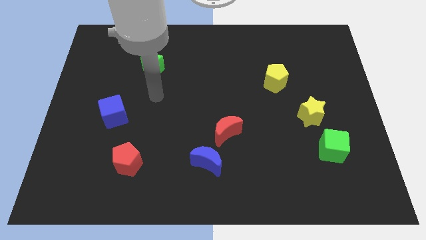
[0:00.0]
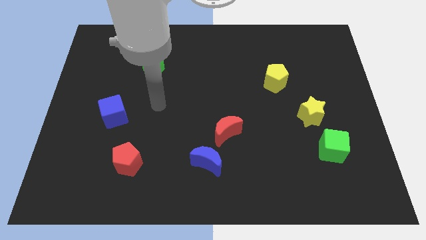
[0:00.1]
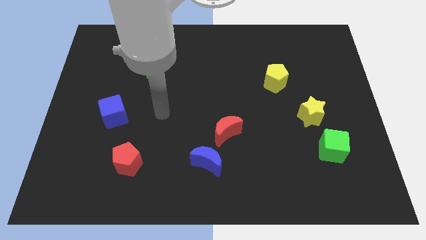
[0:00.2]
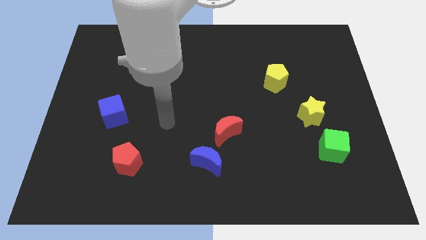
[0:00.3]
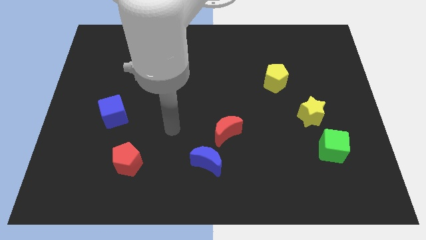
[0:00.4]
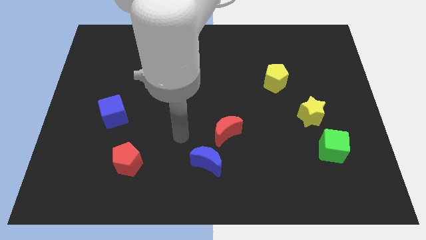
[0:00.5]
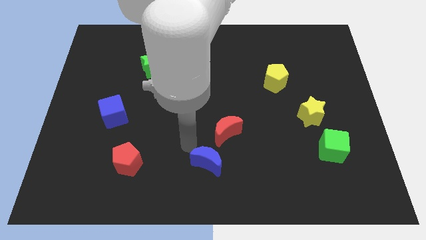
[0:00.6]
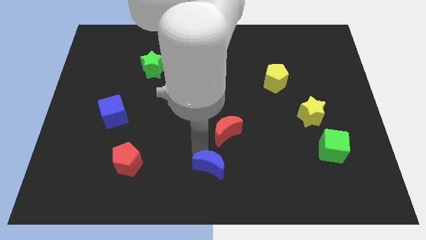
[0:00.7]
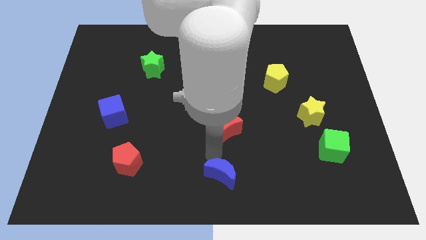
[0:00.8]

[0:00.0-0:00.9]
move the red moon away from the blue moon

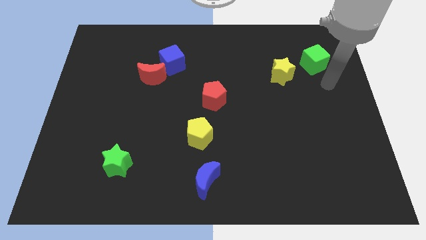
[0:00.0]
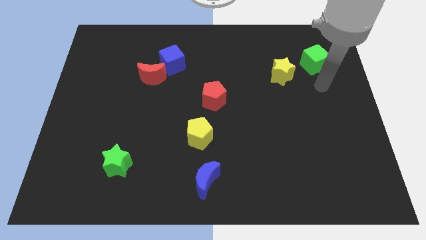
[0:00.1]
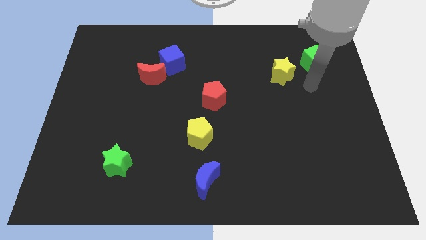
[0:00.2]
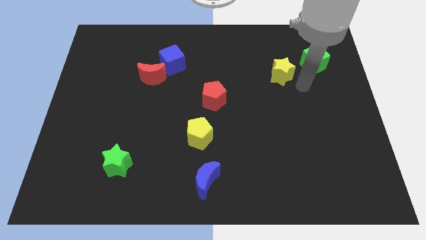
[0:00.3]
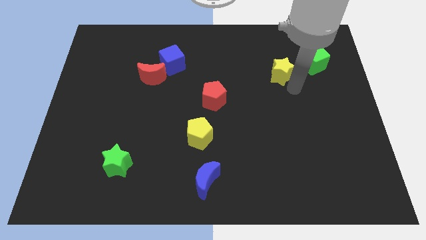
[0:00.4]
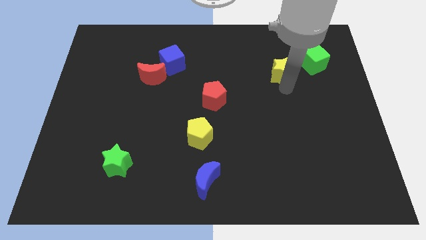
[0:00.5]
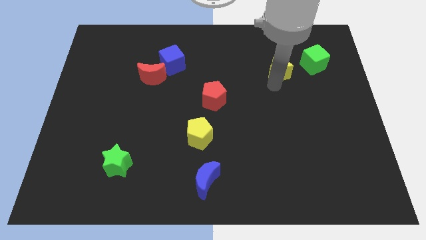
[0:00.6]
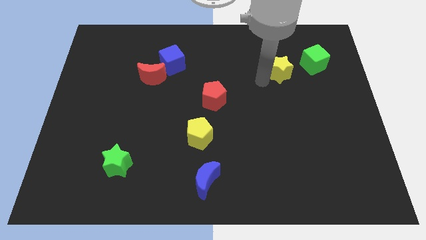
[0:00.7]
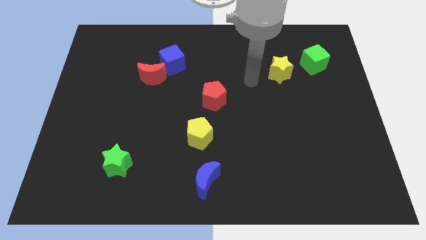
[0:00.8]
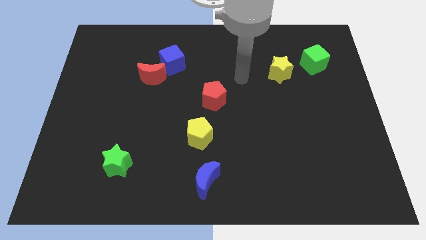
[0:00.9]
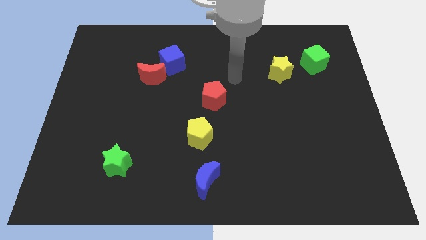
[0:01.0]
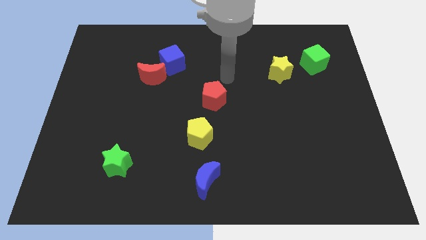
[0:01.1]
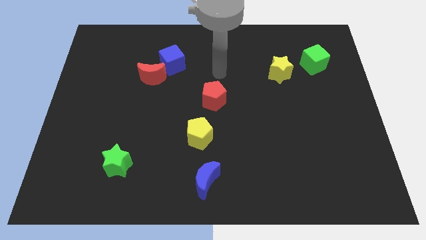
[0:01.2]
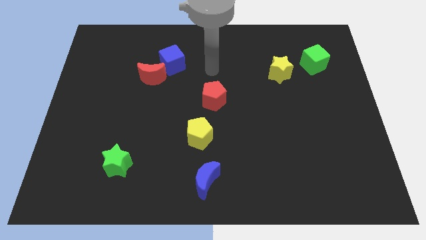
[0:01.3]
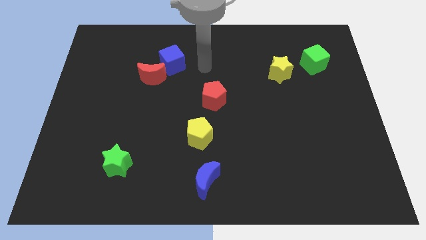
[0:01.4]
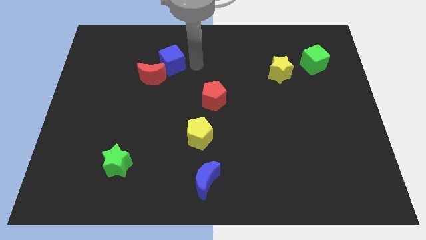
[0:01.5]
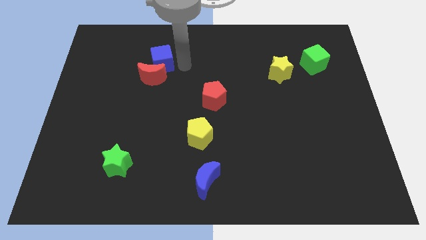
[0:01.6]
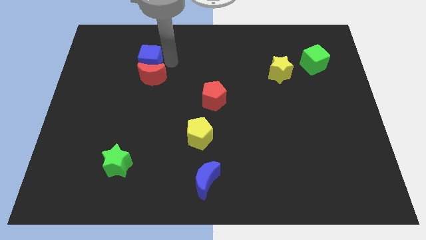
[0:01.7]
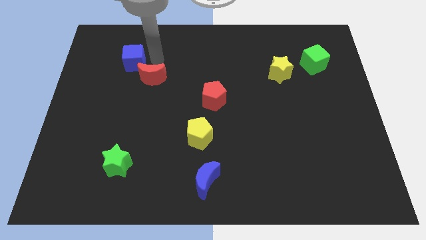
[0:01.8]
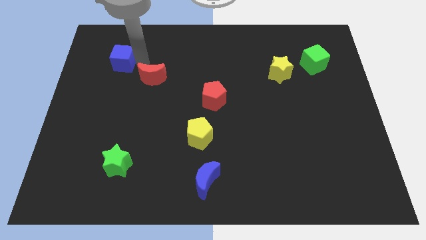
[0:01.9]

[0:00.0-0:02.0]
move the red moon away from the blue cube

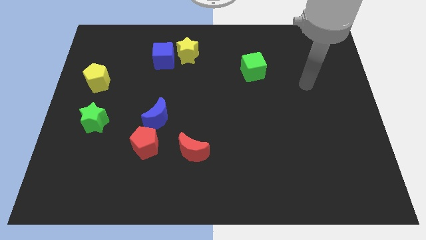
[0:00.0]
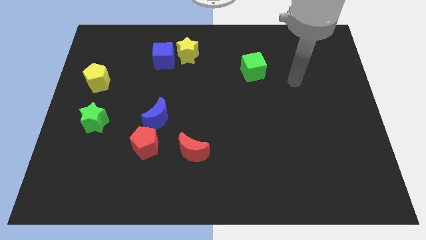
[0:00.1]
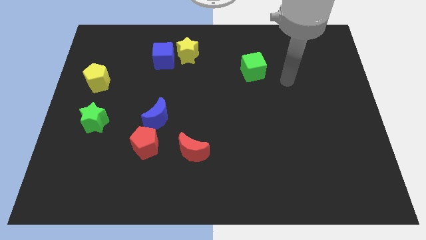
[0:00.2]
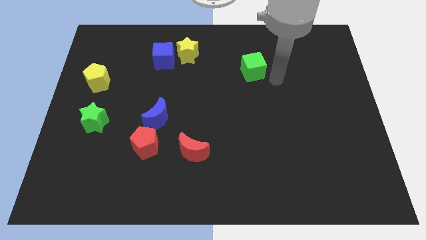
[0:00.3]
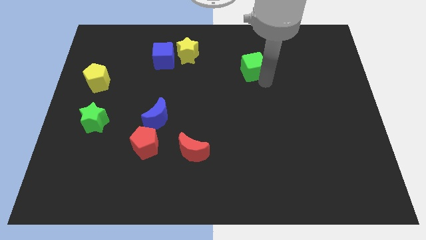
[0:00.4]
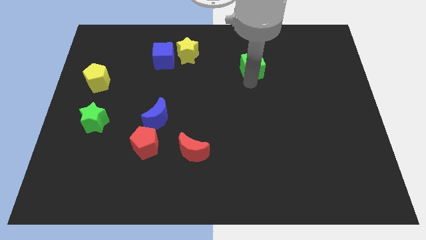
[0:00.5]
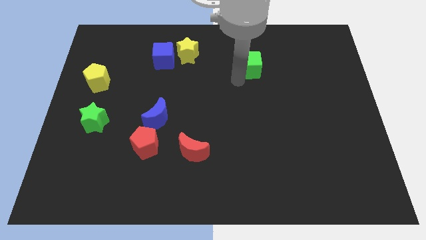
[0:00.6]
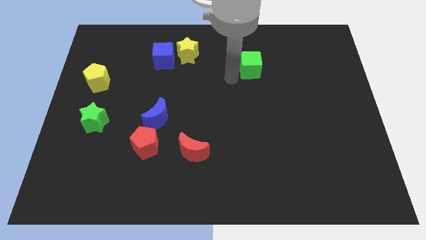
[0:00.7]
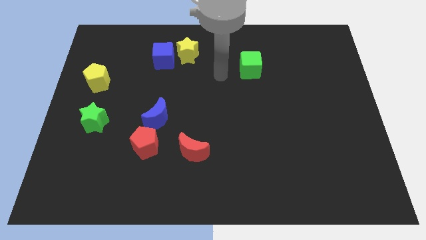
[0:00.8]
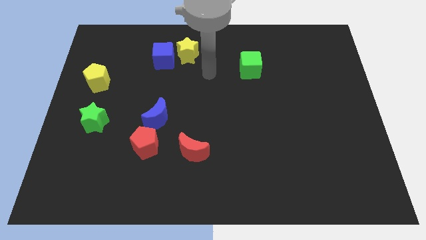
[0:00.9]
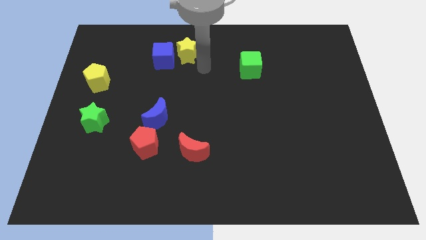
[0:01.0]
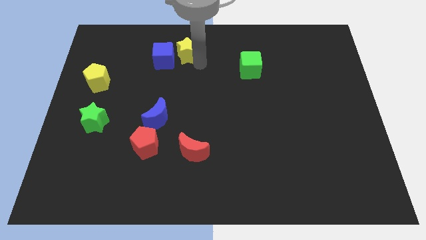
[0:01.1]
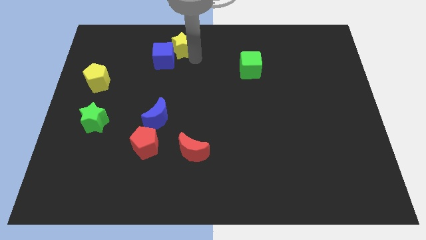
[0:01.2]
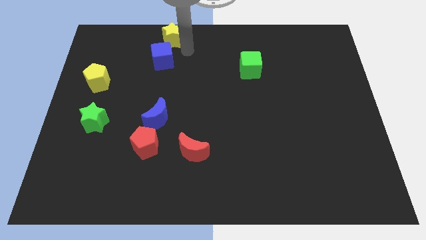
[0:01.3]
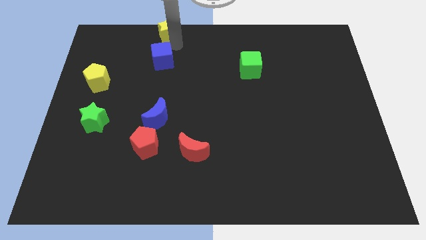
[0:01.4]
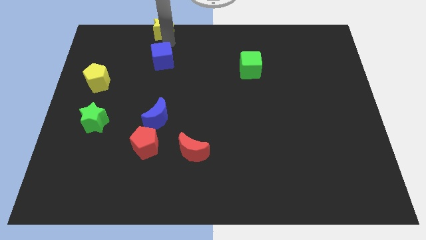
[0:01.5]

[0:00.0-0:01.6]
separate the blue cube from the yellow star

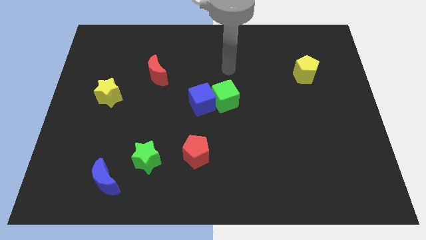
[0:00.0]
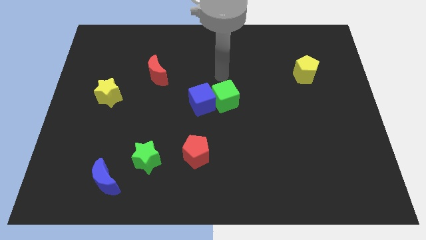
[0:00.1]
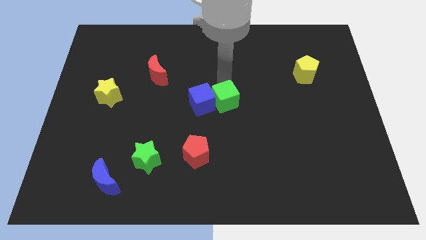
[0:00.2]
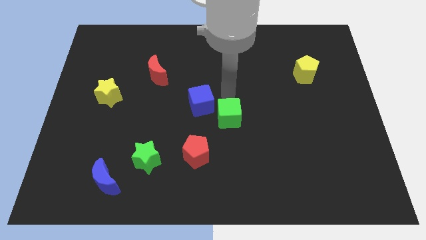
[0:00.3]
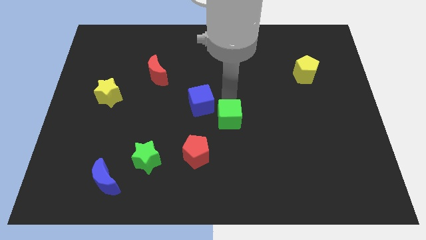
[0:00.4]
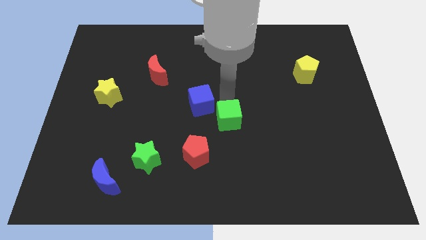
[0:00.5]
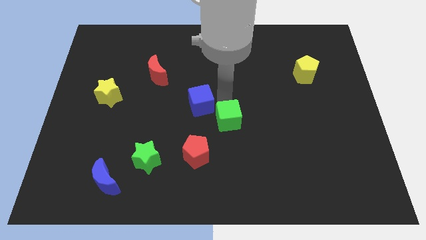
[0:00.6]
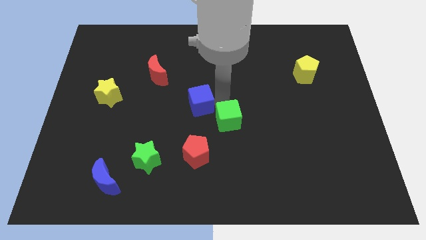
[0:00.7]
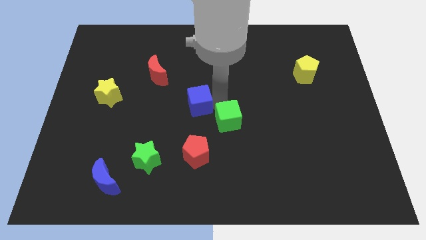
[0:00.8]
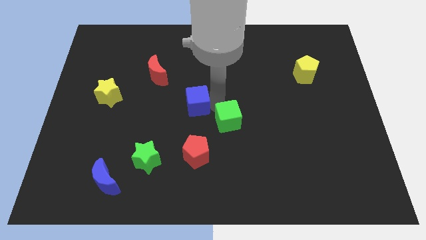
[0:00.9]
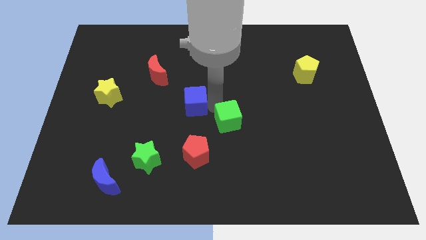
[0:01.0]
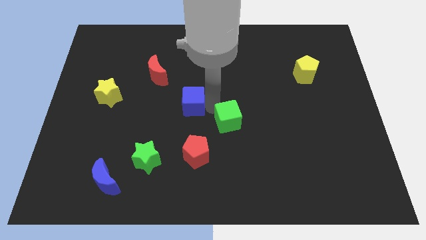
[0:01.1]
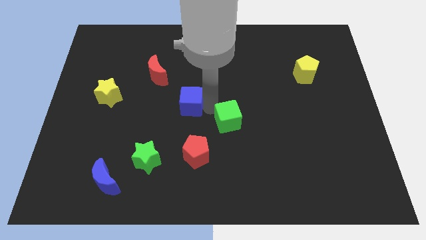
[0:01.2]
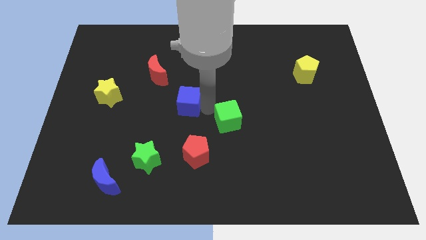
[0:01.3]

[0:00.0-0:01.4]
separate the blue cube from the green cube

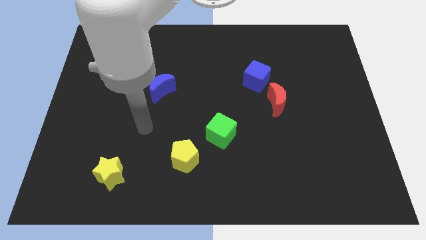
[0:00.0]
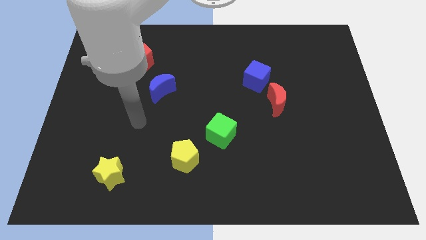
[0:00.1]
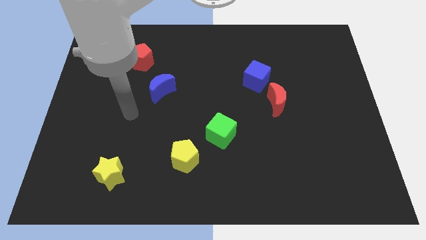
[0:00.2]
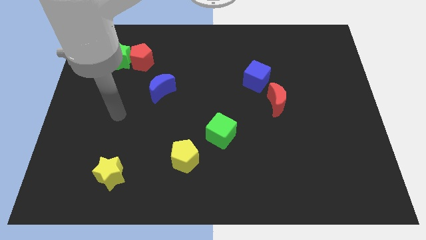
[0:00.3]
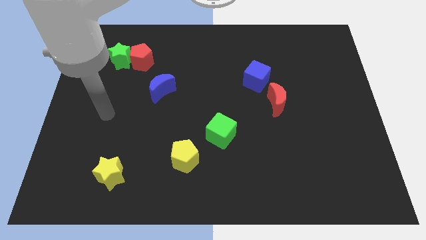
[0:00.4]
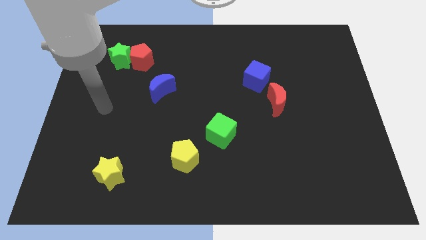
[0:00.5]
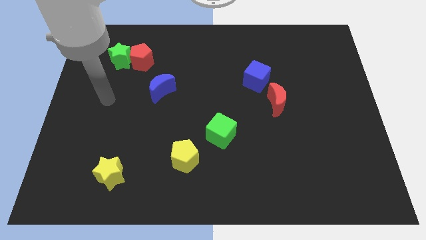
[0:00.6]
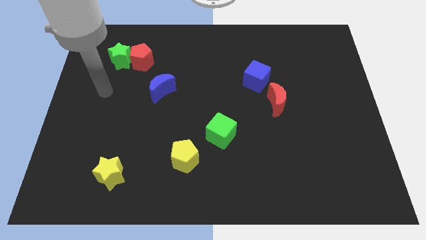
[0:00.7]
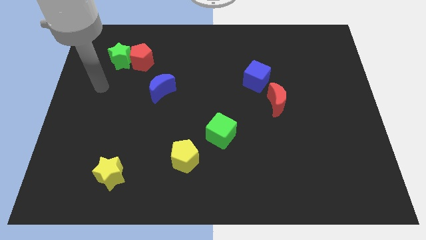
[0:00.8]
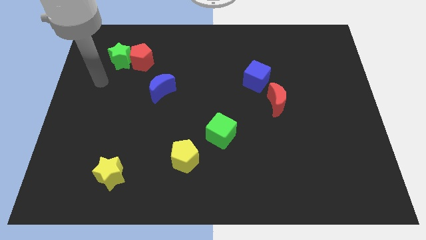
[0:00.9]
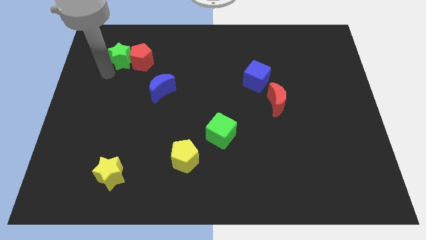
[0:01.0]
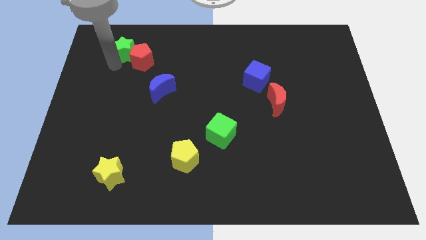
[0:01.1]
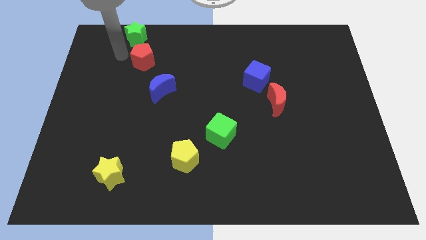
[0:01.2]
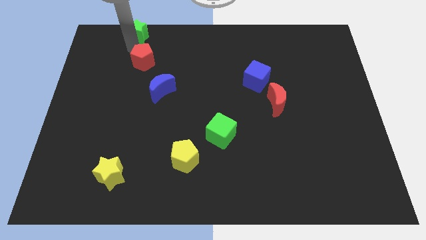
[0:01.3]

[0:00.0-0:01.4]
move the red pentagon away from the green star

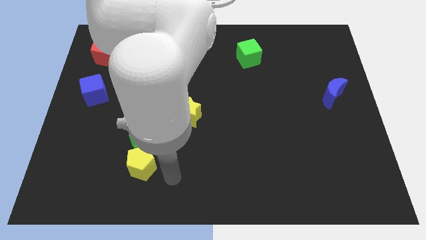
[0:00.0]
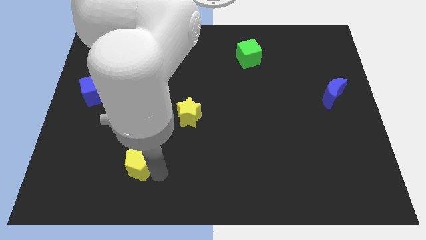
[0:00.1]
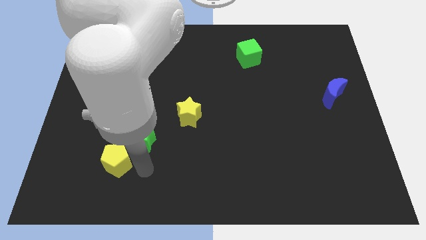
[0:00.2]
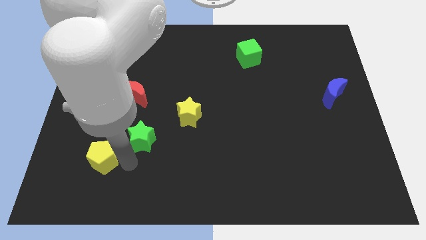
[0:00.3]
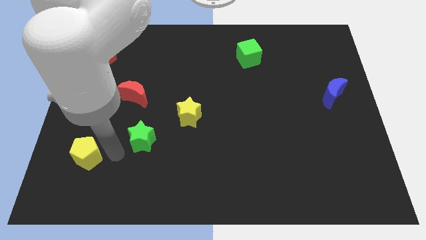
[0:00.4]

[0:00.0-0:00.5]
separate the green star from the yellow pentagon

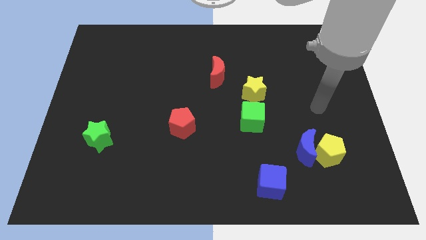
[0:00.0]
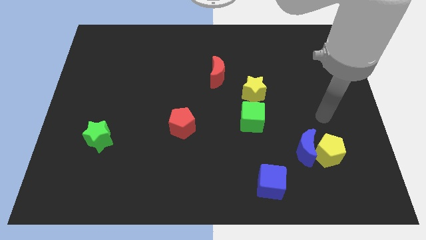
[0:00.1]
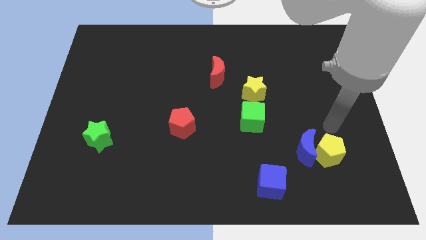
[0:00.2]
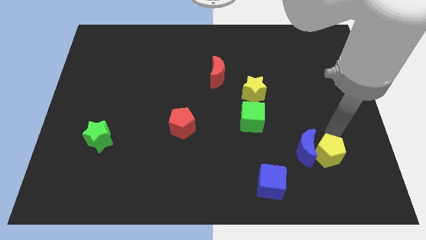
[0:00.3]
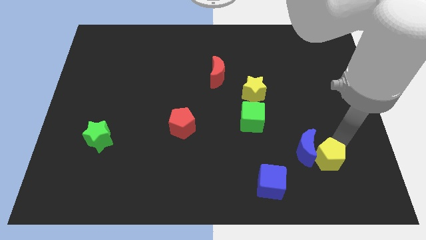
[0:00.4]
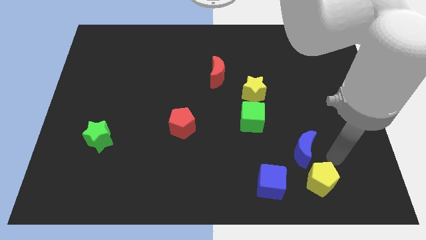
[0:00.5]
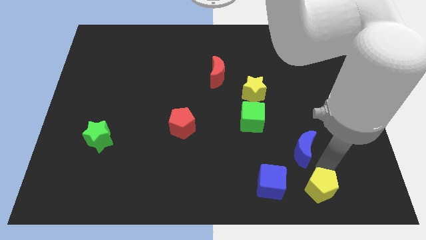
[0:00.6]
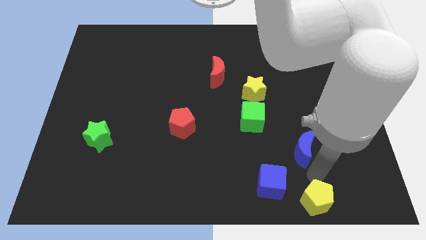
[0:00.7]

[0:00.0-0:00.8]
separate the blue moon from the yellow pentagon

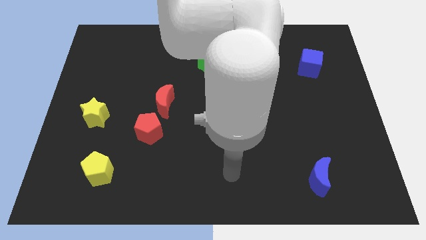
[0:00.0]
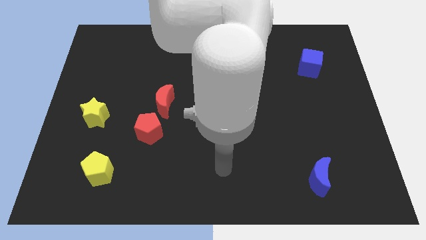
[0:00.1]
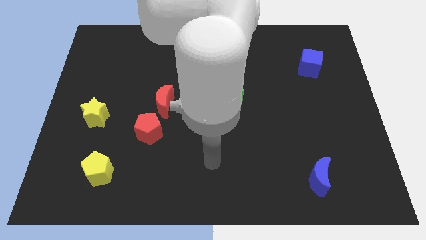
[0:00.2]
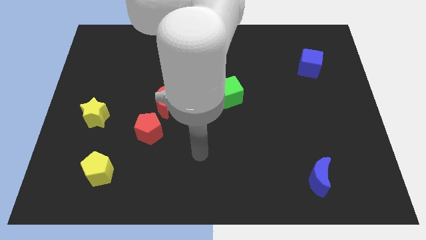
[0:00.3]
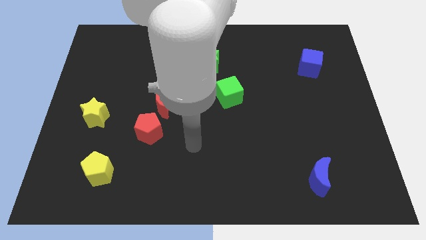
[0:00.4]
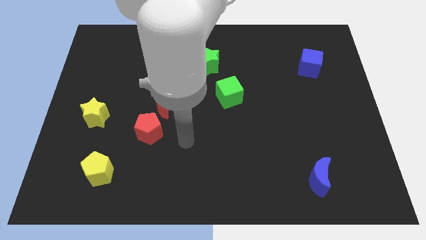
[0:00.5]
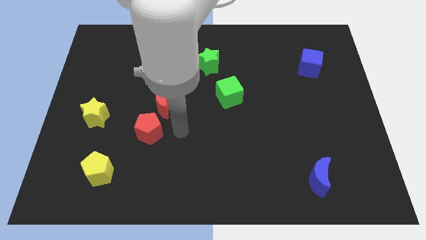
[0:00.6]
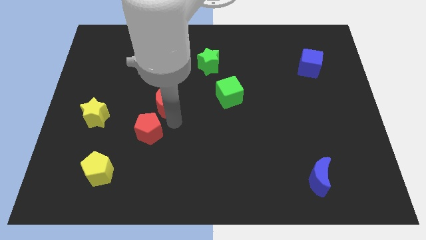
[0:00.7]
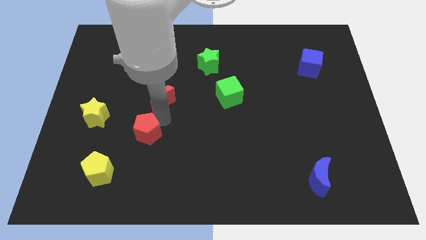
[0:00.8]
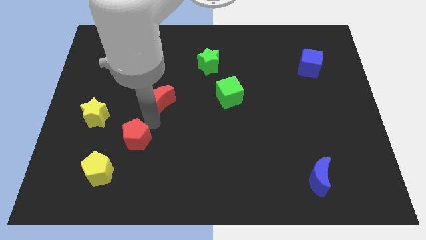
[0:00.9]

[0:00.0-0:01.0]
pull the red moon apart from the red pentagon
